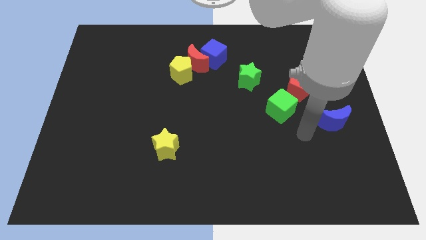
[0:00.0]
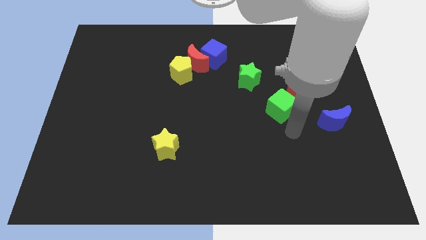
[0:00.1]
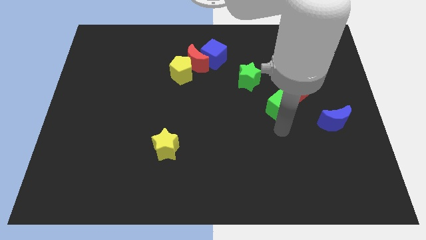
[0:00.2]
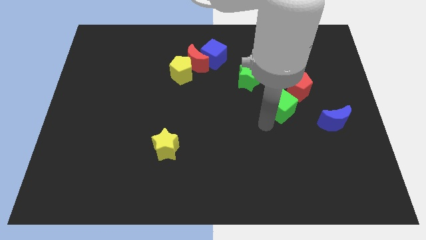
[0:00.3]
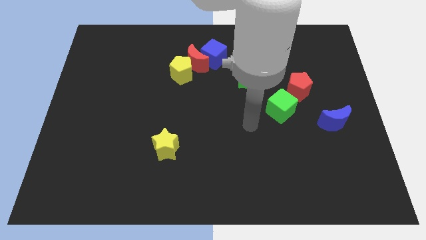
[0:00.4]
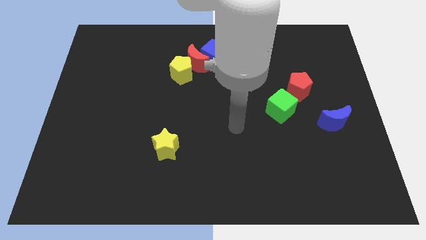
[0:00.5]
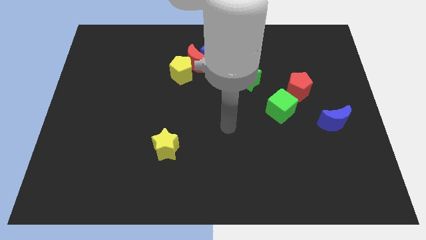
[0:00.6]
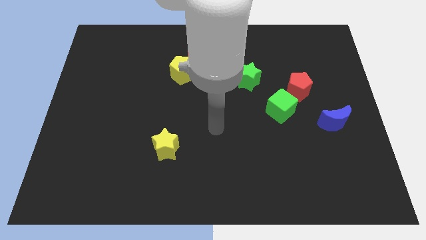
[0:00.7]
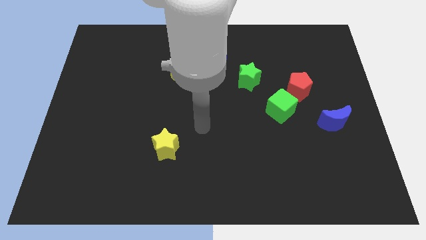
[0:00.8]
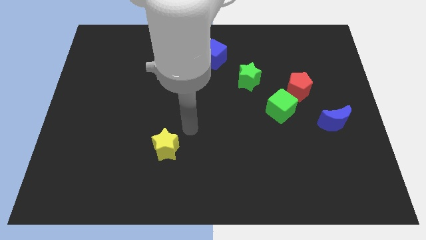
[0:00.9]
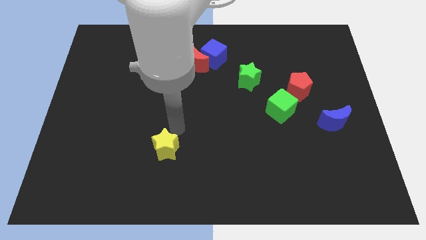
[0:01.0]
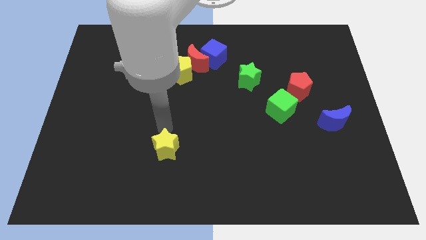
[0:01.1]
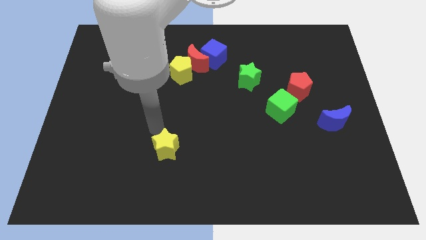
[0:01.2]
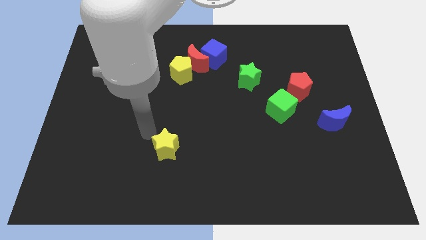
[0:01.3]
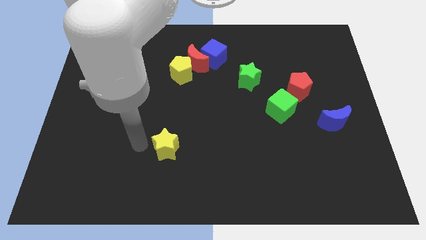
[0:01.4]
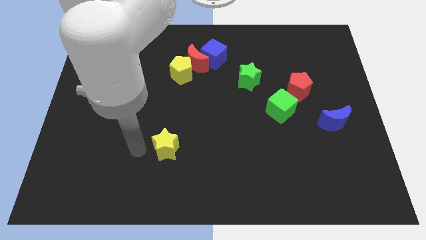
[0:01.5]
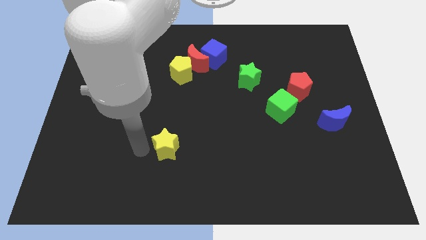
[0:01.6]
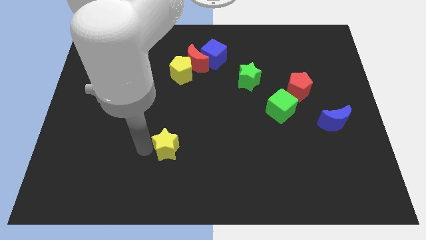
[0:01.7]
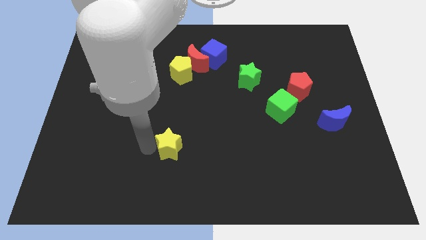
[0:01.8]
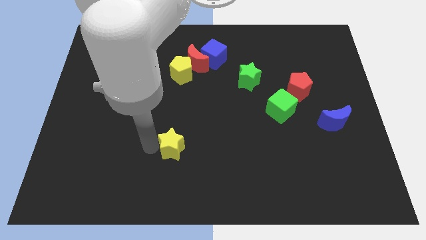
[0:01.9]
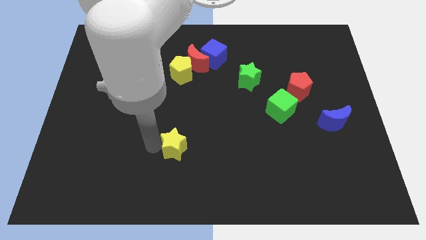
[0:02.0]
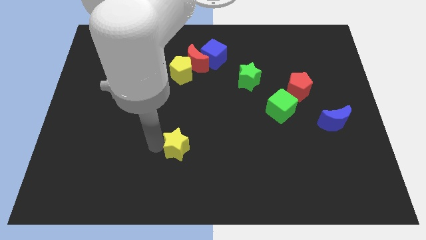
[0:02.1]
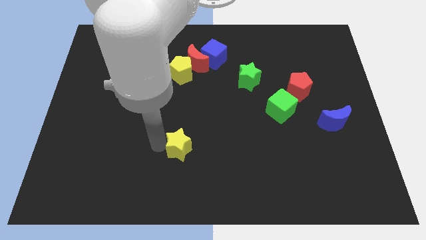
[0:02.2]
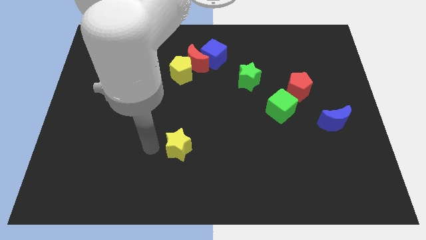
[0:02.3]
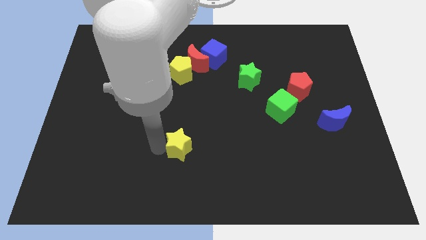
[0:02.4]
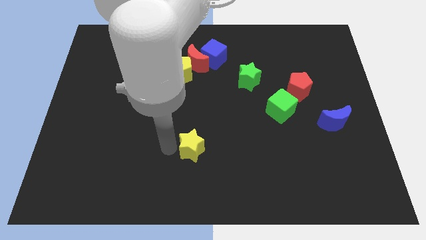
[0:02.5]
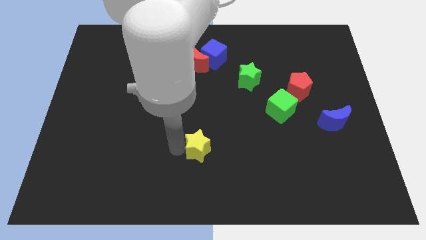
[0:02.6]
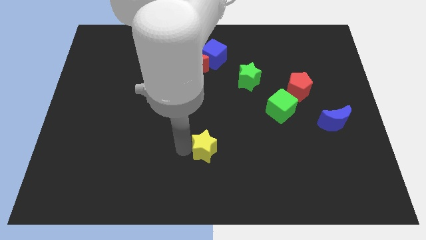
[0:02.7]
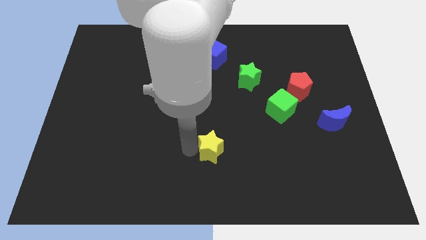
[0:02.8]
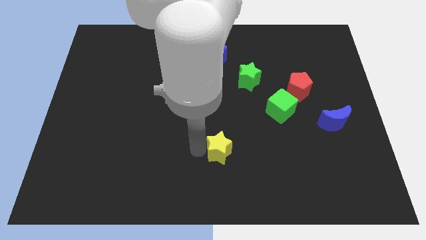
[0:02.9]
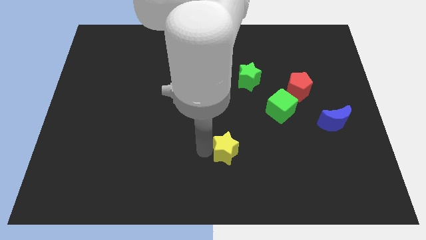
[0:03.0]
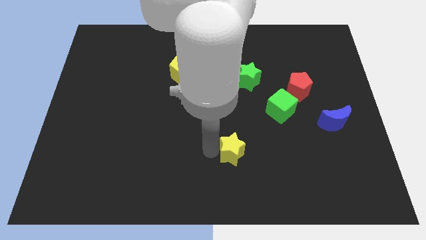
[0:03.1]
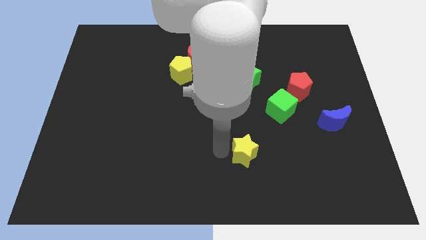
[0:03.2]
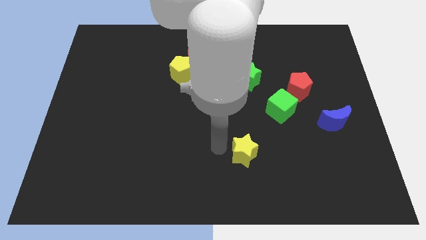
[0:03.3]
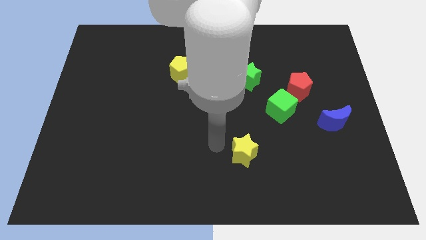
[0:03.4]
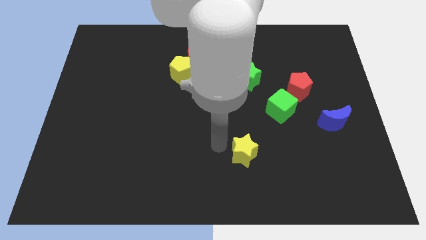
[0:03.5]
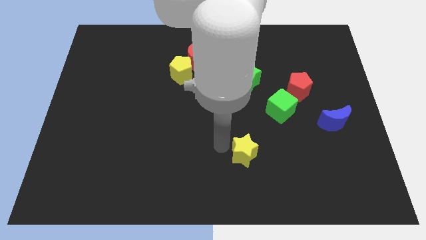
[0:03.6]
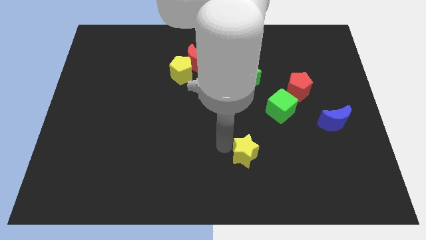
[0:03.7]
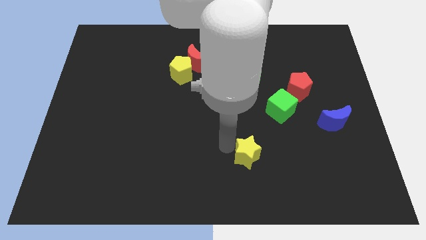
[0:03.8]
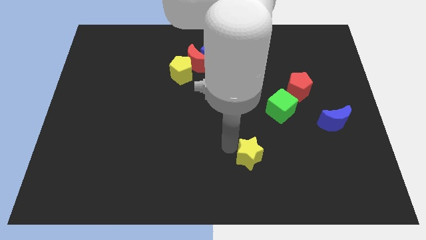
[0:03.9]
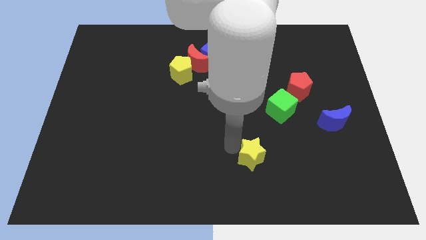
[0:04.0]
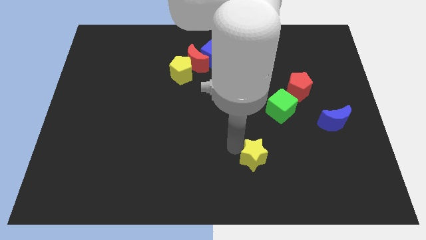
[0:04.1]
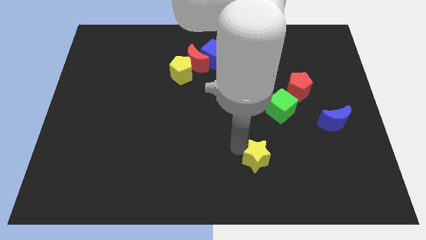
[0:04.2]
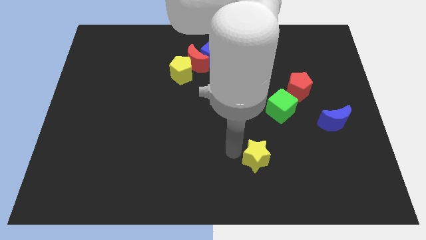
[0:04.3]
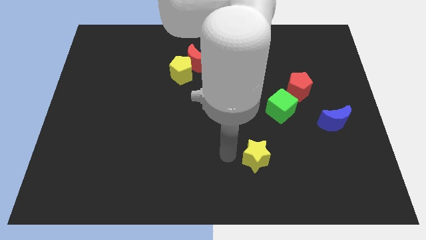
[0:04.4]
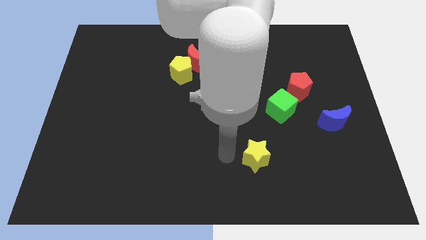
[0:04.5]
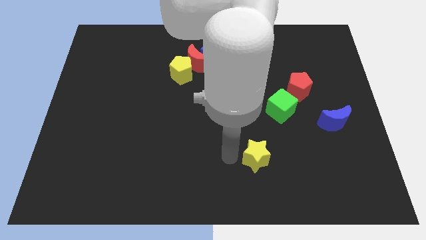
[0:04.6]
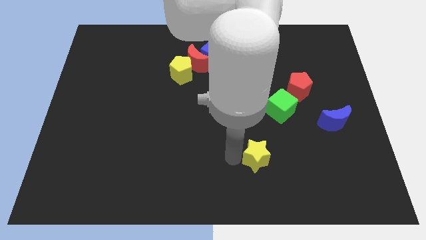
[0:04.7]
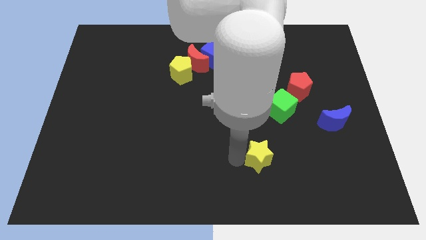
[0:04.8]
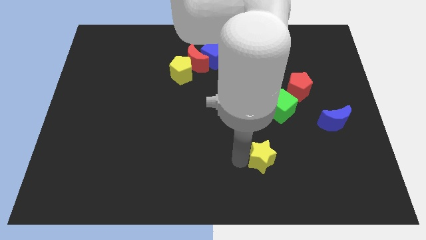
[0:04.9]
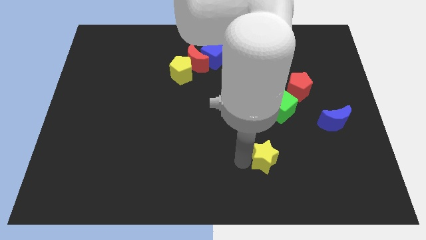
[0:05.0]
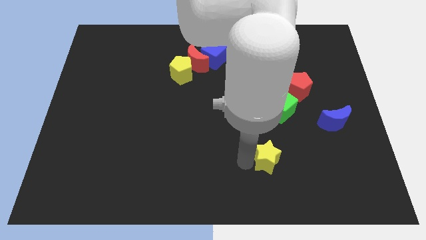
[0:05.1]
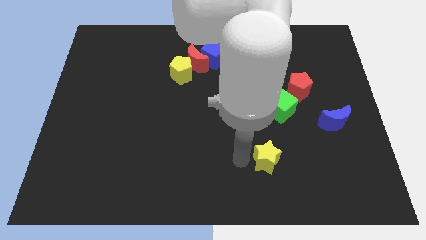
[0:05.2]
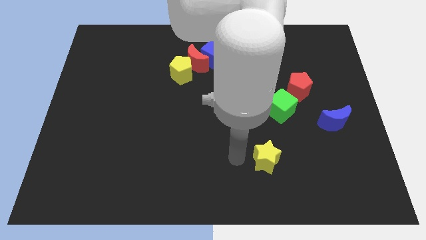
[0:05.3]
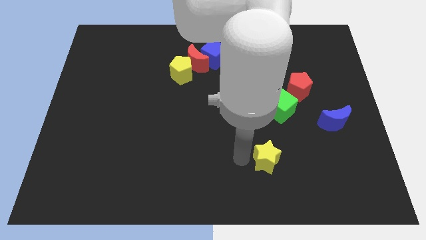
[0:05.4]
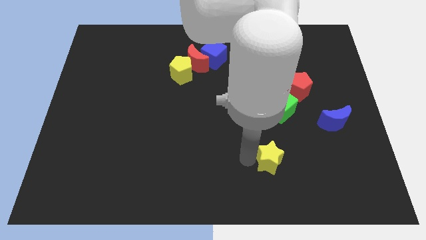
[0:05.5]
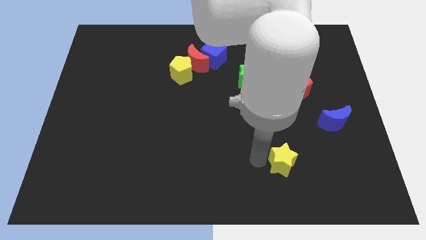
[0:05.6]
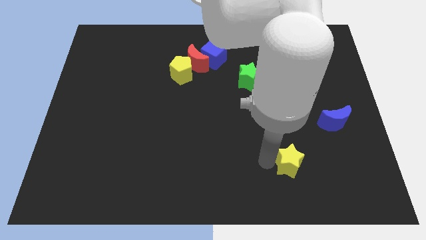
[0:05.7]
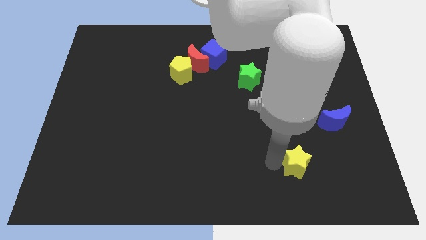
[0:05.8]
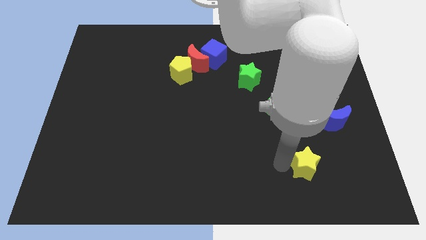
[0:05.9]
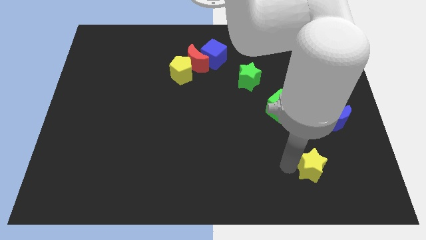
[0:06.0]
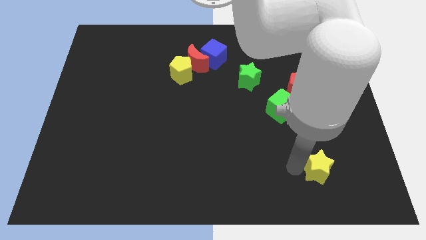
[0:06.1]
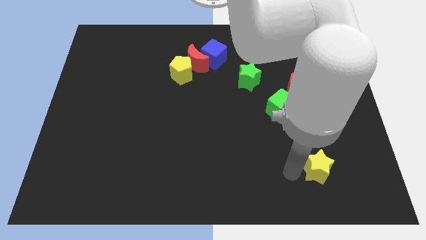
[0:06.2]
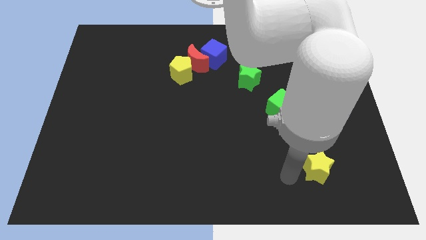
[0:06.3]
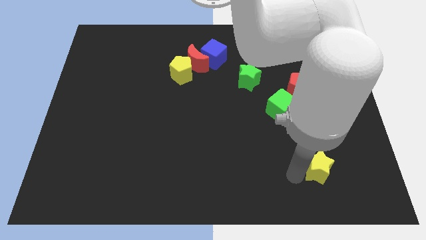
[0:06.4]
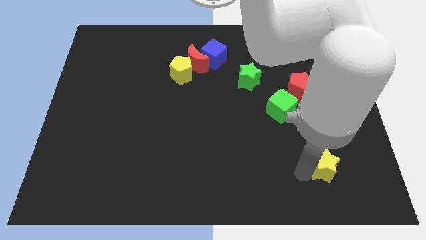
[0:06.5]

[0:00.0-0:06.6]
push the yellow star to the bottom of the blue moon

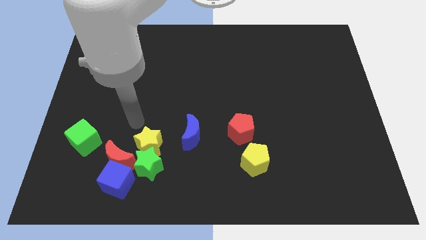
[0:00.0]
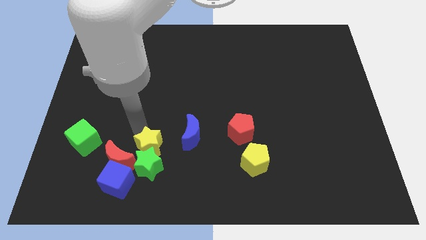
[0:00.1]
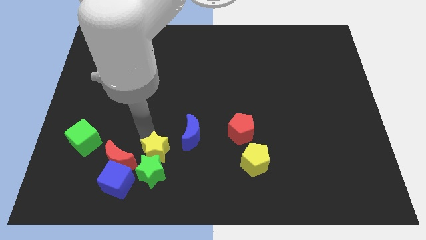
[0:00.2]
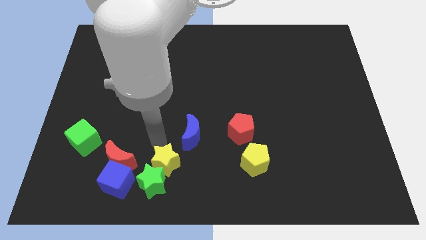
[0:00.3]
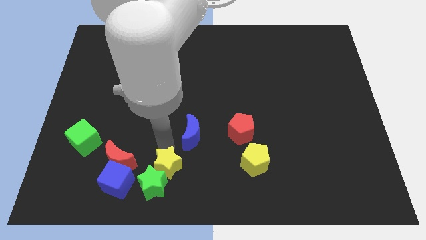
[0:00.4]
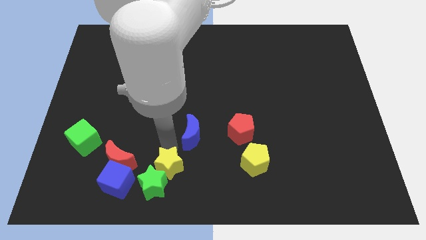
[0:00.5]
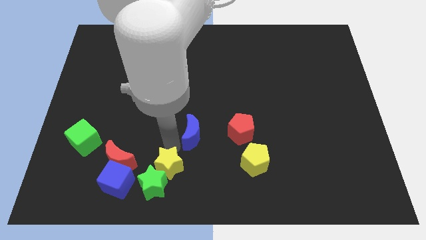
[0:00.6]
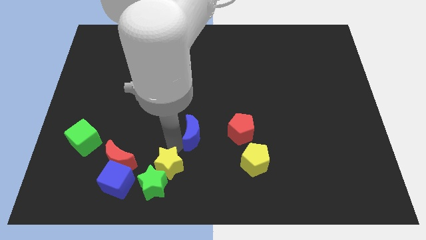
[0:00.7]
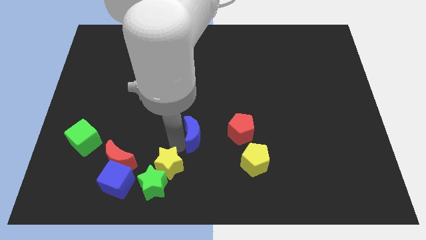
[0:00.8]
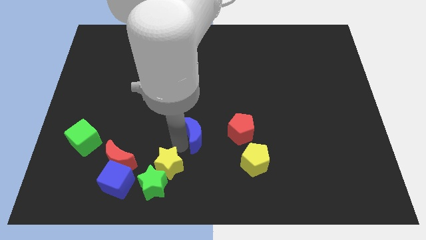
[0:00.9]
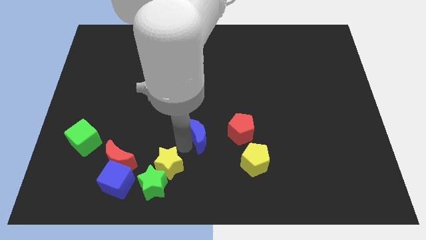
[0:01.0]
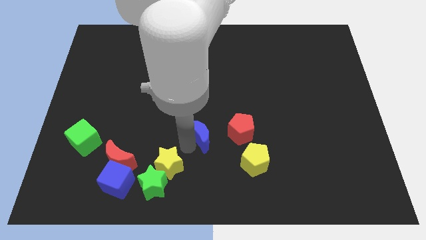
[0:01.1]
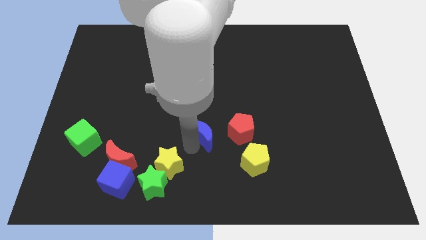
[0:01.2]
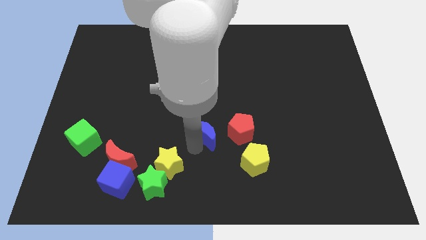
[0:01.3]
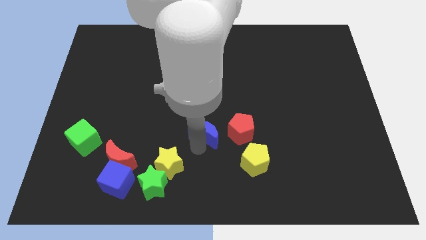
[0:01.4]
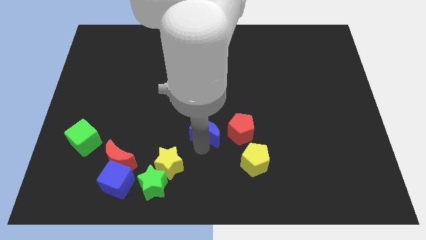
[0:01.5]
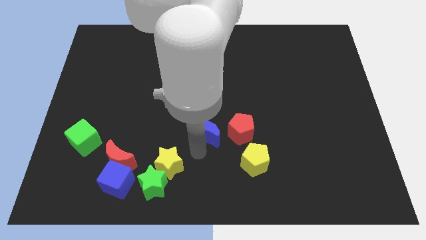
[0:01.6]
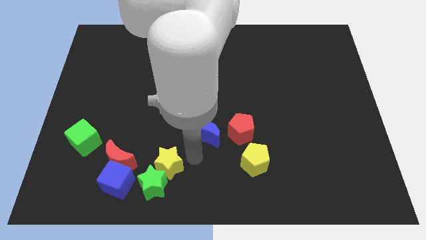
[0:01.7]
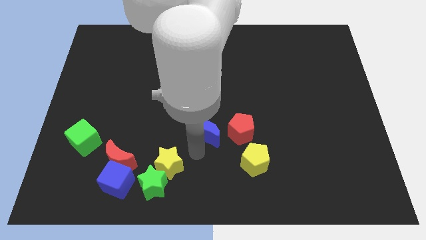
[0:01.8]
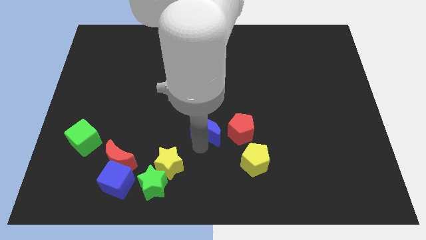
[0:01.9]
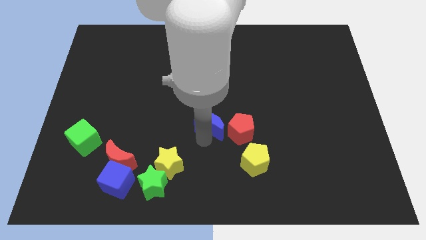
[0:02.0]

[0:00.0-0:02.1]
slide the blue moon diagonally up and to the left of the red pentagon
